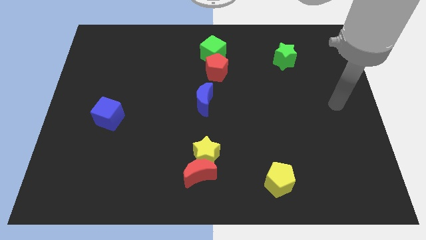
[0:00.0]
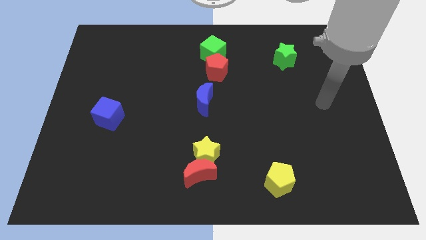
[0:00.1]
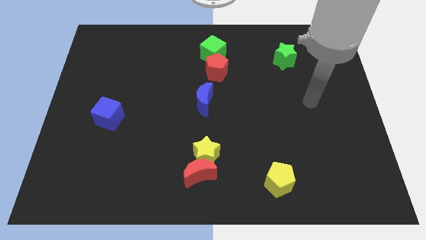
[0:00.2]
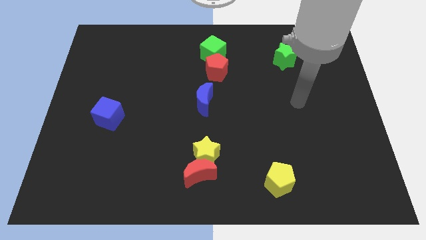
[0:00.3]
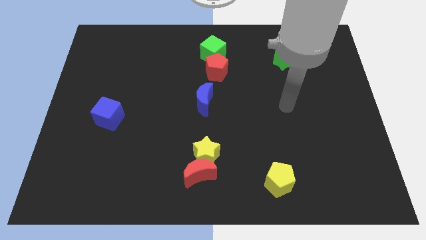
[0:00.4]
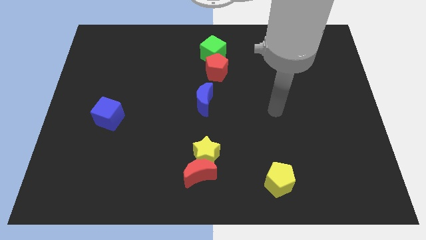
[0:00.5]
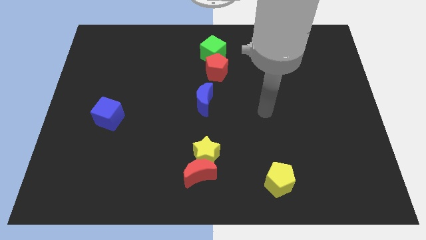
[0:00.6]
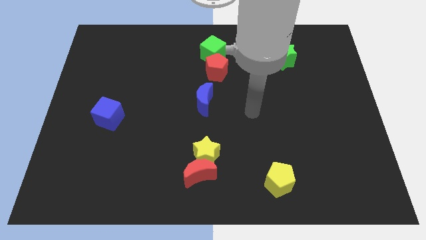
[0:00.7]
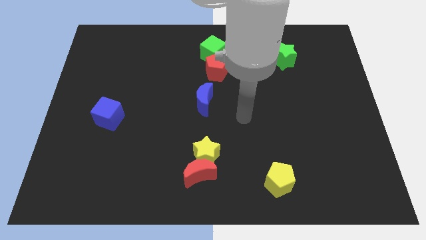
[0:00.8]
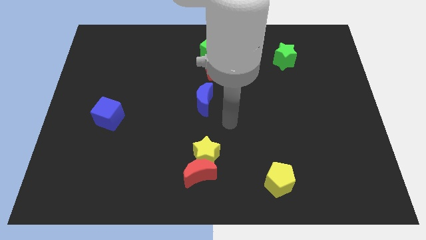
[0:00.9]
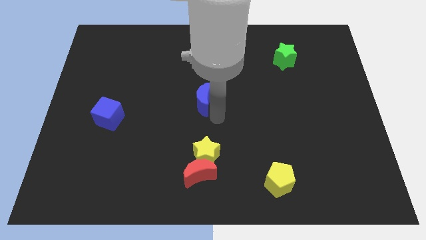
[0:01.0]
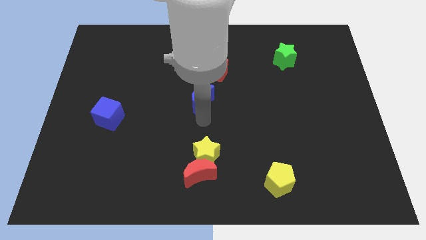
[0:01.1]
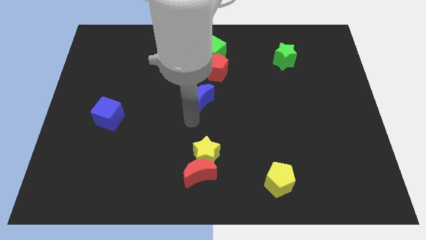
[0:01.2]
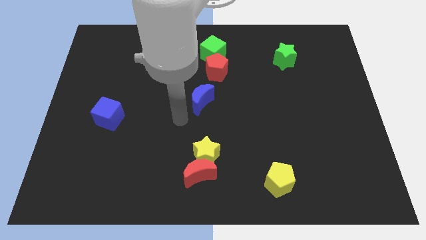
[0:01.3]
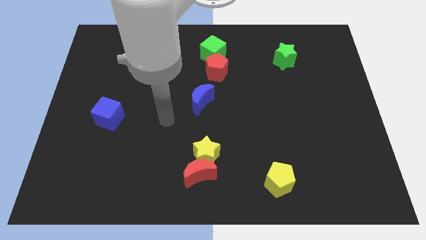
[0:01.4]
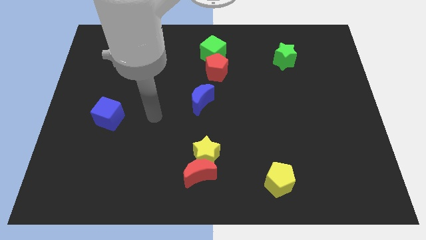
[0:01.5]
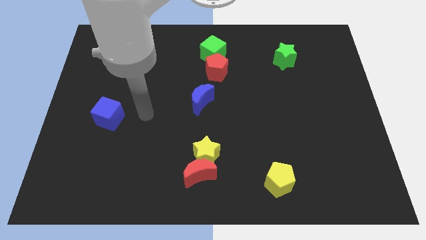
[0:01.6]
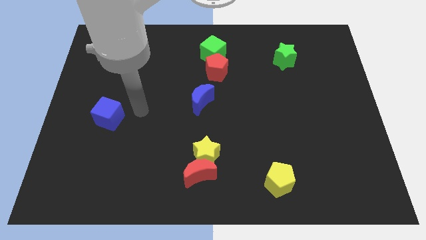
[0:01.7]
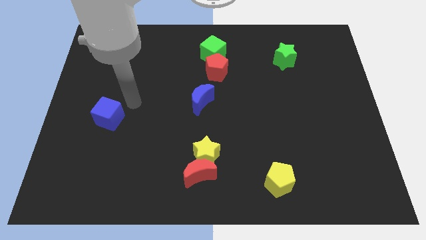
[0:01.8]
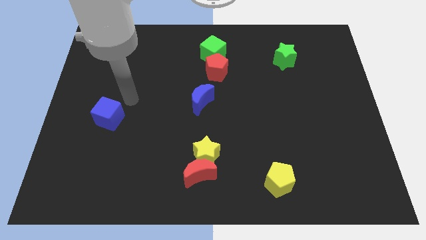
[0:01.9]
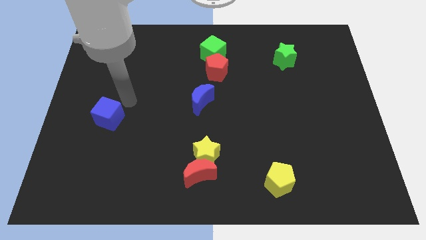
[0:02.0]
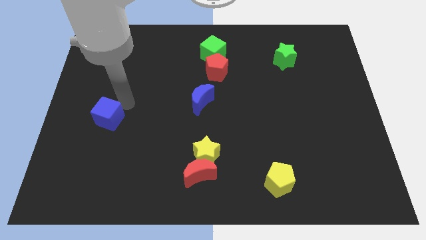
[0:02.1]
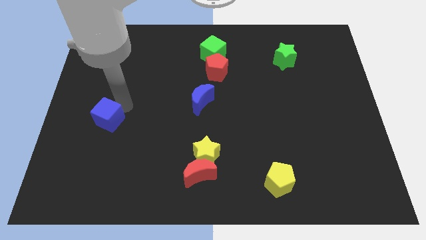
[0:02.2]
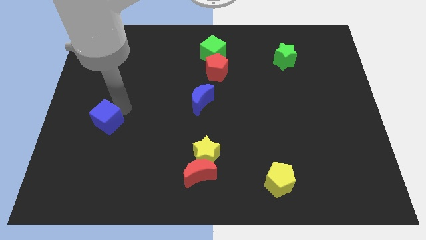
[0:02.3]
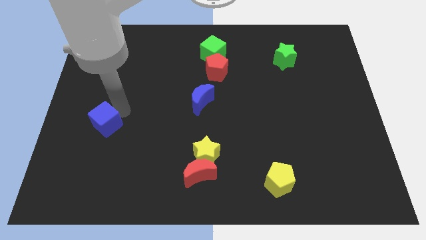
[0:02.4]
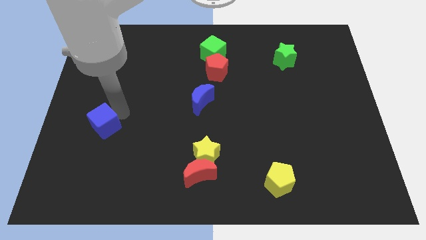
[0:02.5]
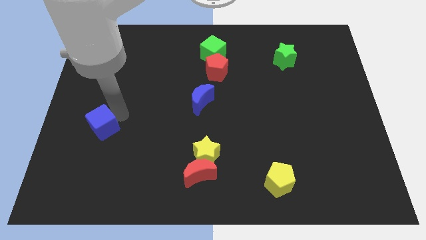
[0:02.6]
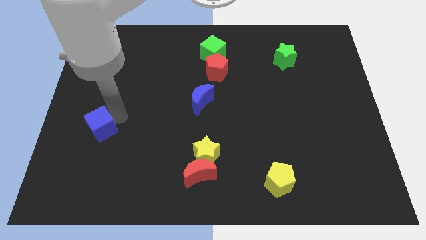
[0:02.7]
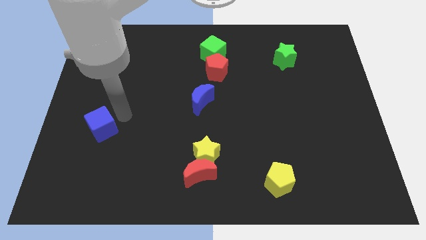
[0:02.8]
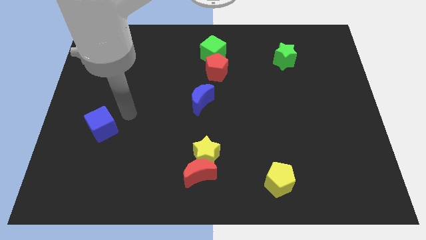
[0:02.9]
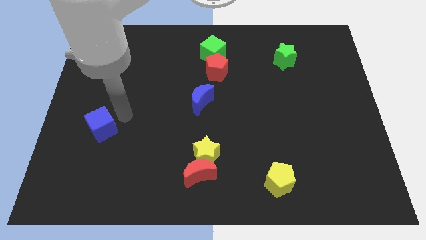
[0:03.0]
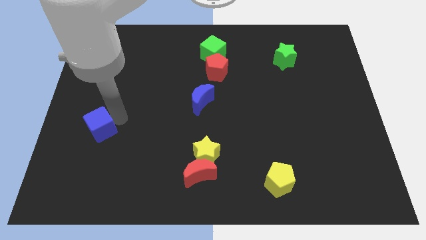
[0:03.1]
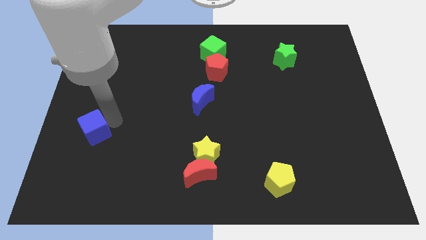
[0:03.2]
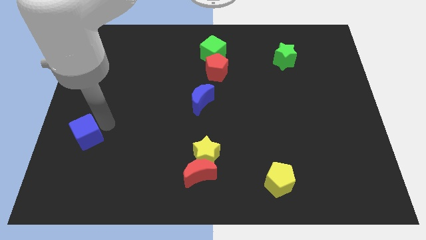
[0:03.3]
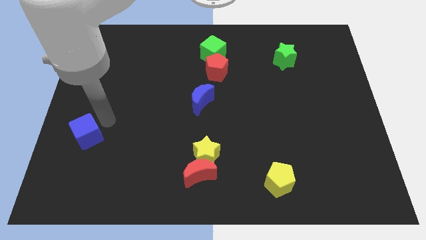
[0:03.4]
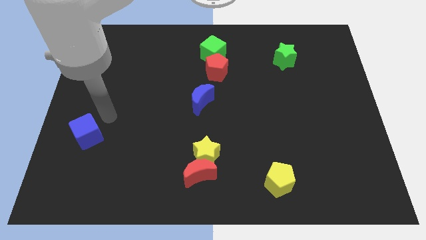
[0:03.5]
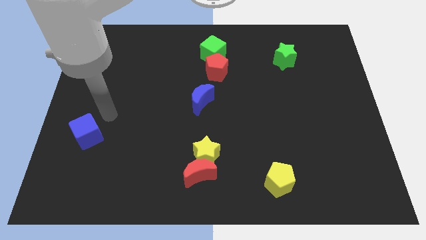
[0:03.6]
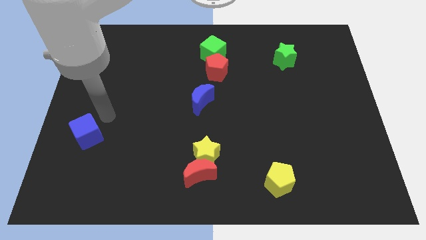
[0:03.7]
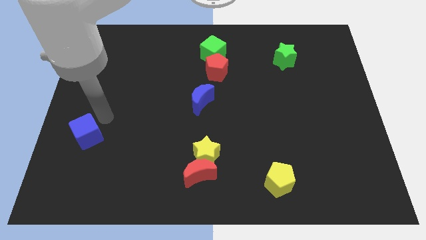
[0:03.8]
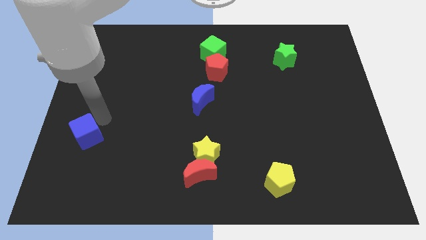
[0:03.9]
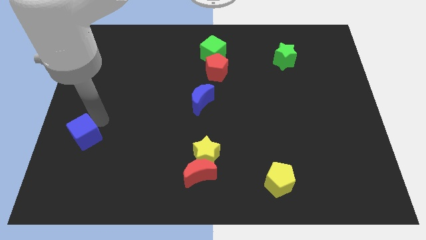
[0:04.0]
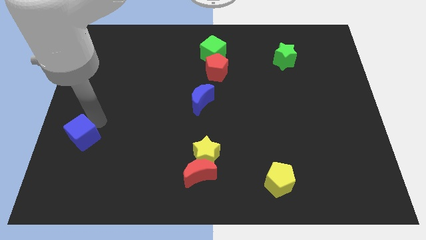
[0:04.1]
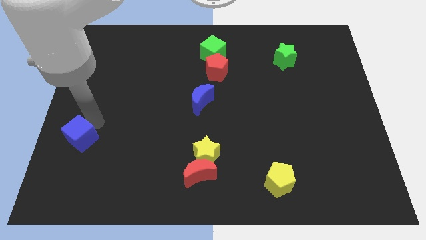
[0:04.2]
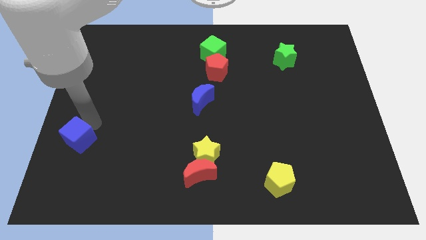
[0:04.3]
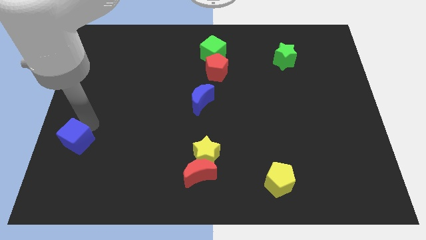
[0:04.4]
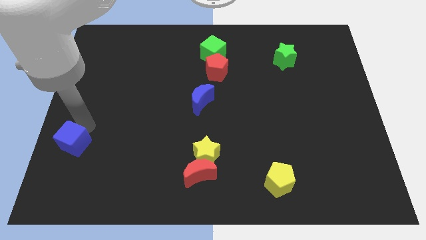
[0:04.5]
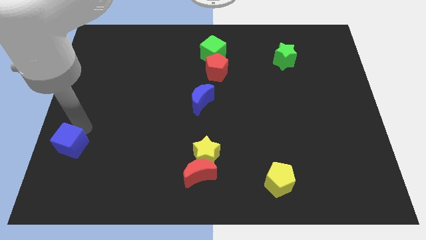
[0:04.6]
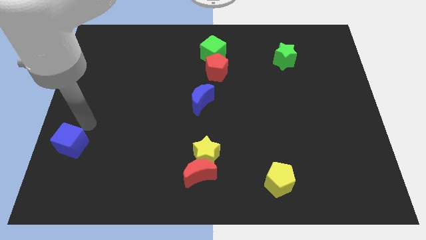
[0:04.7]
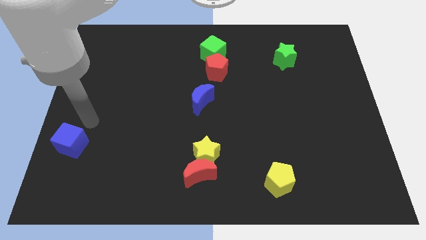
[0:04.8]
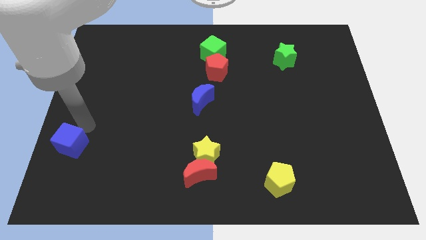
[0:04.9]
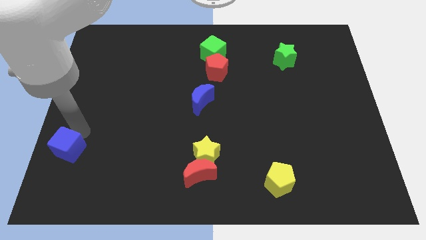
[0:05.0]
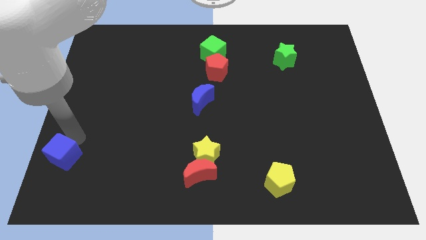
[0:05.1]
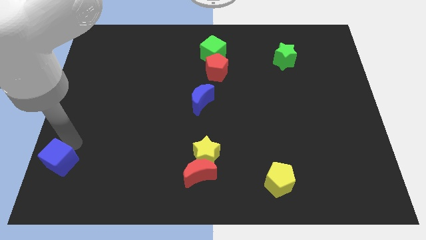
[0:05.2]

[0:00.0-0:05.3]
put the blue cube to the bottom left
